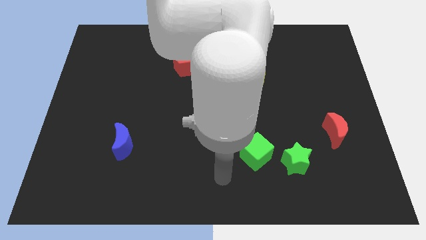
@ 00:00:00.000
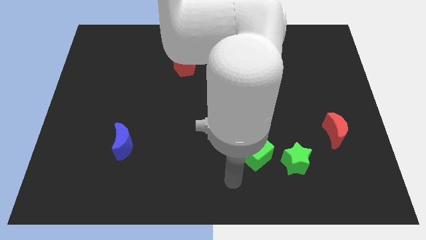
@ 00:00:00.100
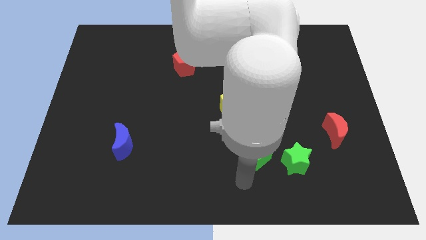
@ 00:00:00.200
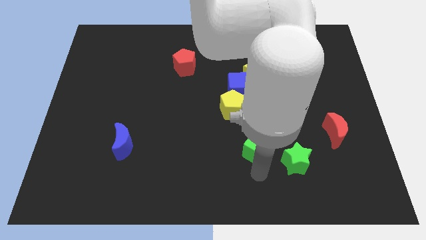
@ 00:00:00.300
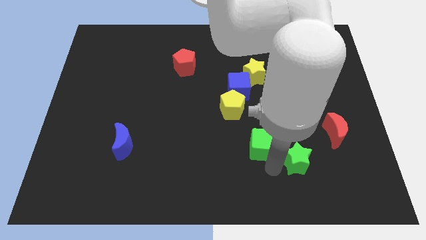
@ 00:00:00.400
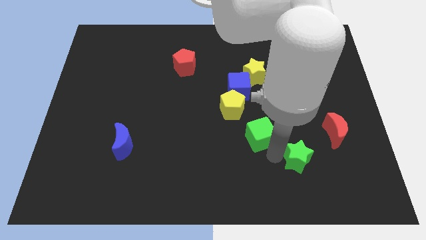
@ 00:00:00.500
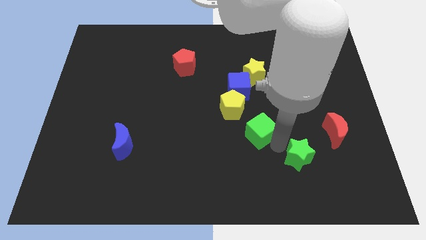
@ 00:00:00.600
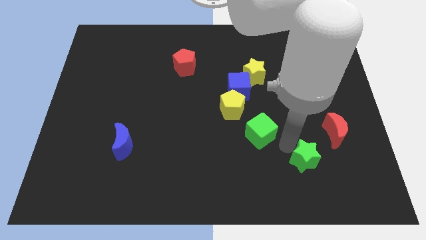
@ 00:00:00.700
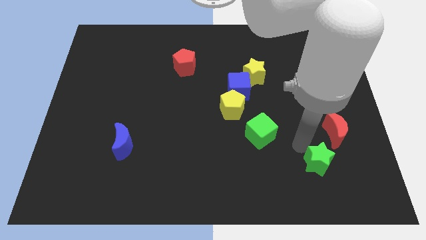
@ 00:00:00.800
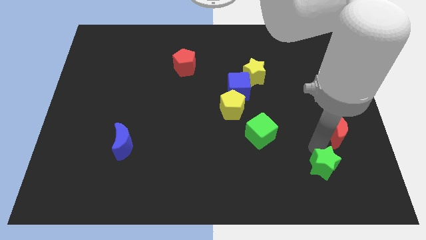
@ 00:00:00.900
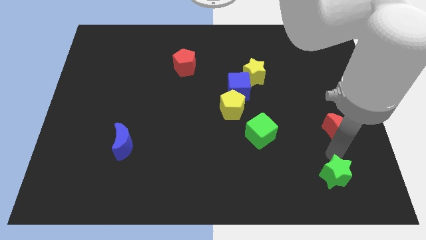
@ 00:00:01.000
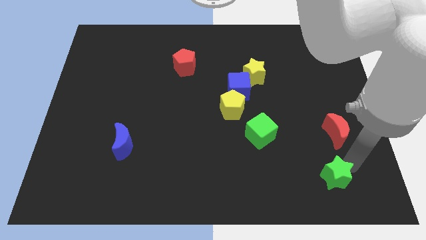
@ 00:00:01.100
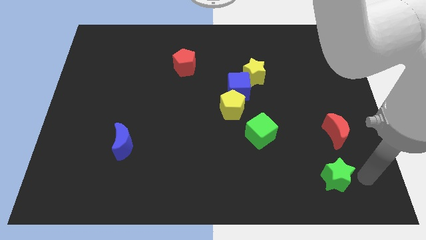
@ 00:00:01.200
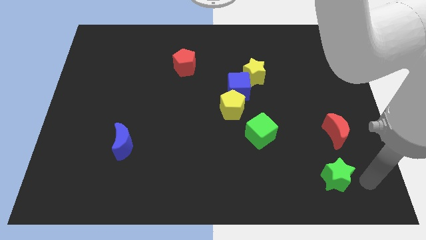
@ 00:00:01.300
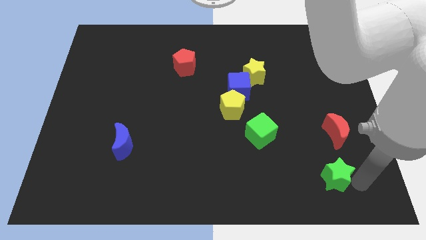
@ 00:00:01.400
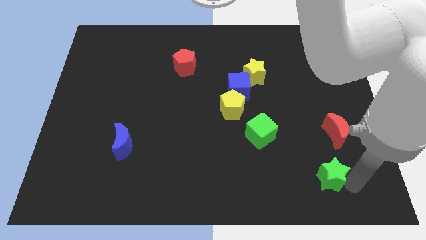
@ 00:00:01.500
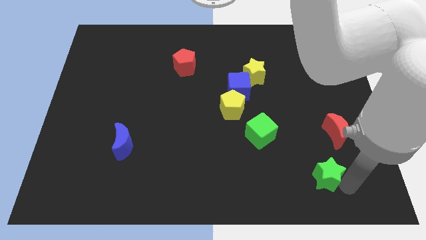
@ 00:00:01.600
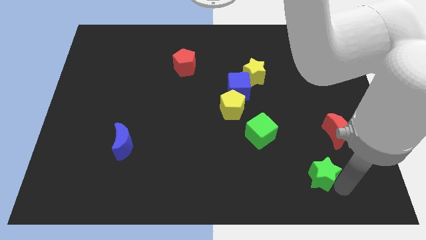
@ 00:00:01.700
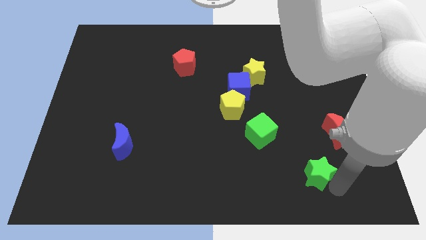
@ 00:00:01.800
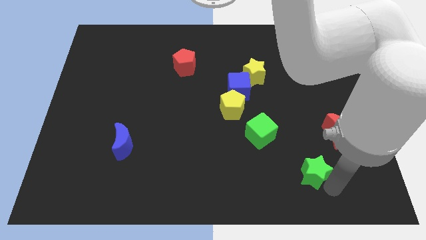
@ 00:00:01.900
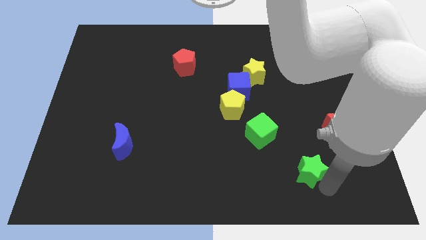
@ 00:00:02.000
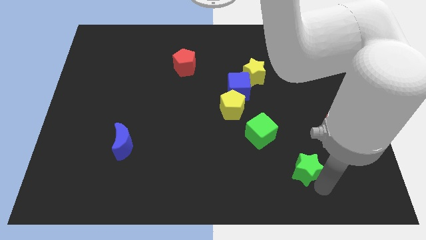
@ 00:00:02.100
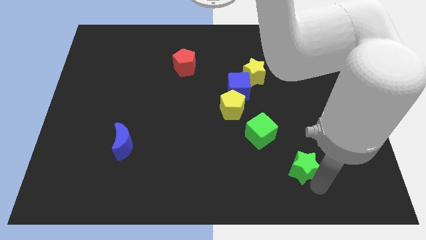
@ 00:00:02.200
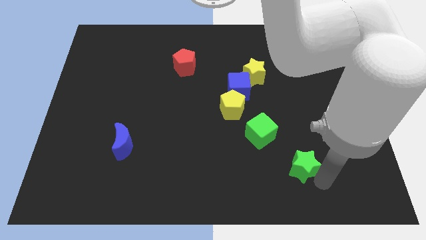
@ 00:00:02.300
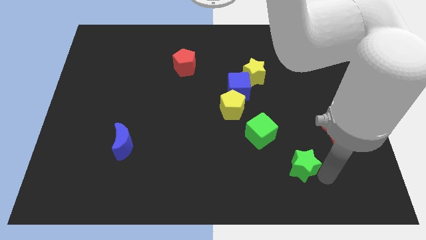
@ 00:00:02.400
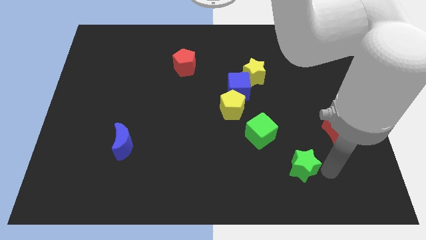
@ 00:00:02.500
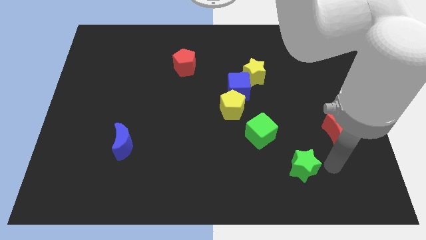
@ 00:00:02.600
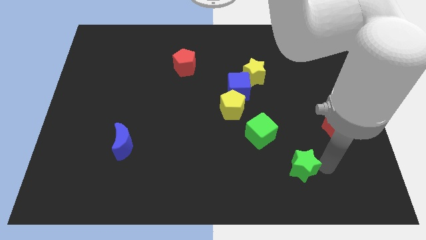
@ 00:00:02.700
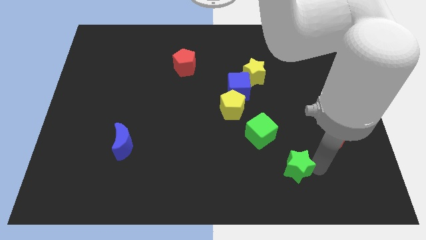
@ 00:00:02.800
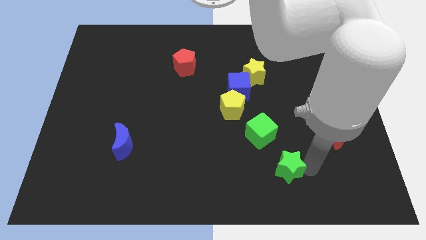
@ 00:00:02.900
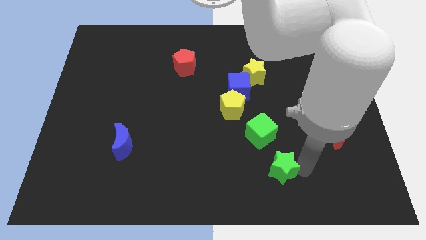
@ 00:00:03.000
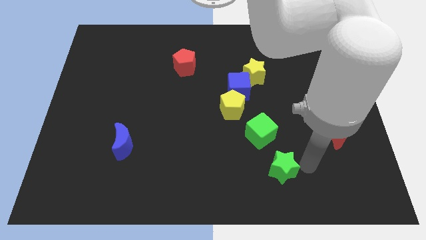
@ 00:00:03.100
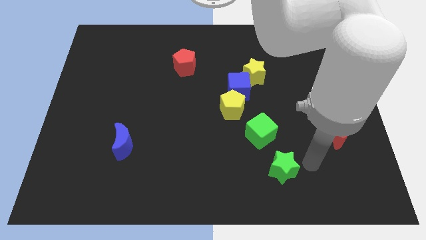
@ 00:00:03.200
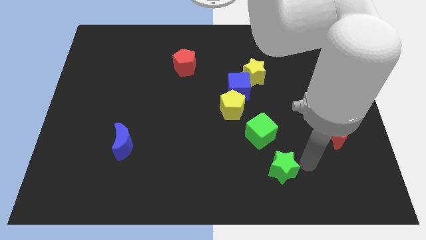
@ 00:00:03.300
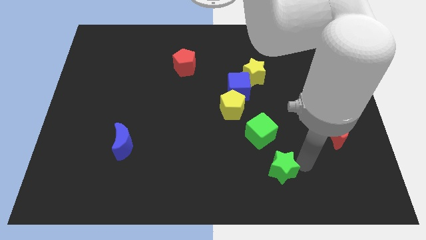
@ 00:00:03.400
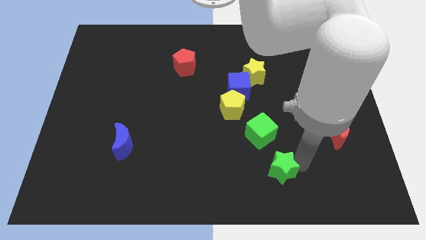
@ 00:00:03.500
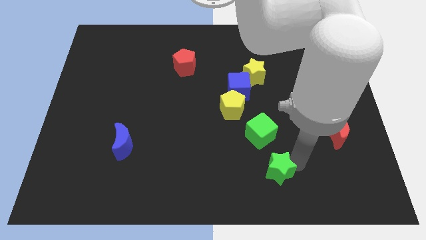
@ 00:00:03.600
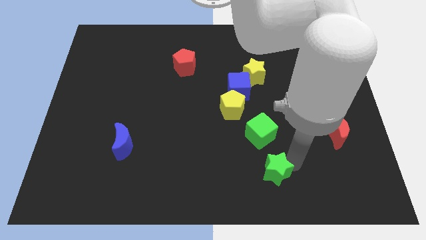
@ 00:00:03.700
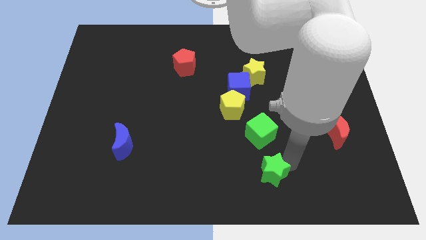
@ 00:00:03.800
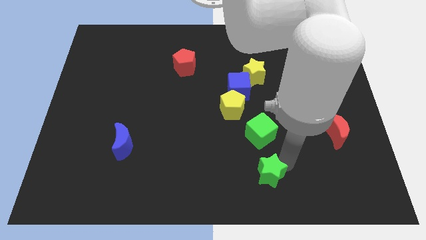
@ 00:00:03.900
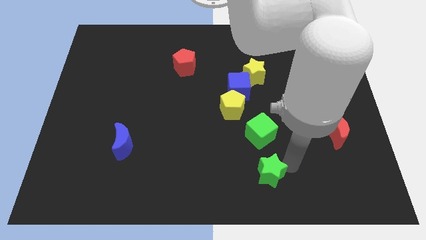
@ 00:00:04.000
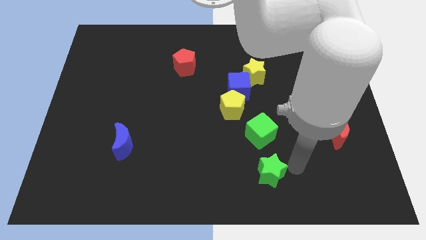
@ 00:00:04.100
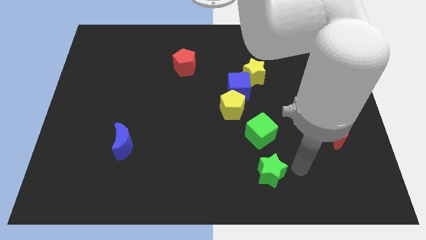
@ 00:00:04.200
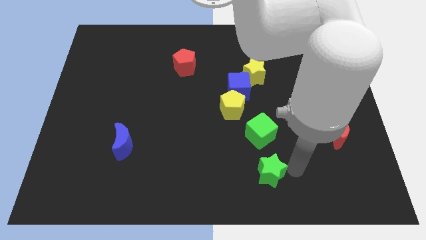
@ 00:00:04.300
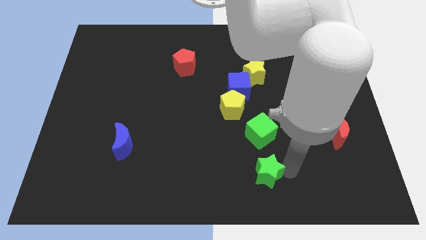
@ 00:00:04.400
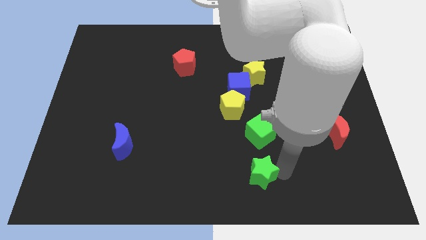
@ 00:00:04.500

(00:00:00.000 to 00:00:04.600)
push the green star left slightly

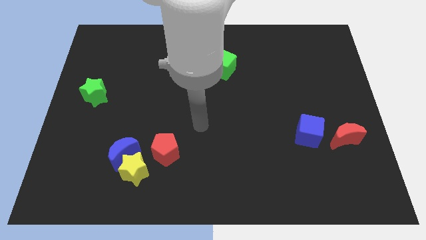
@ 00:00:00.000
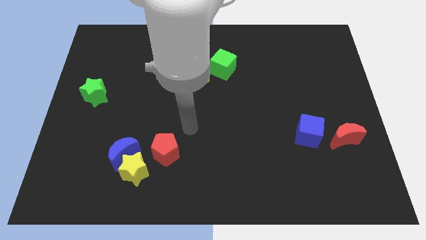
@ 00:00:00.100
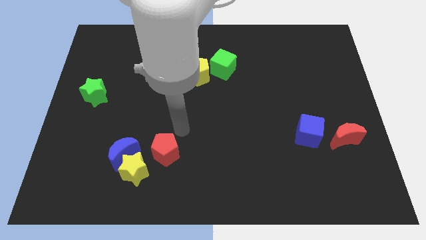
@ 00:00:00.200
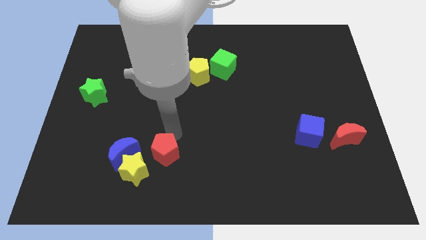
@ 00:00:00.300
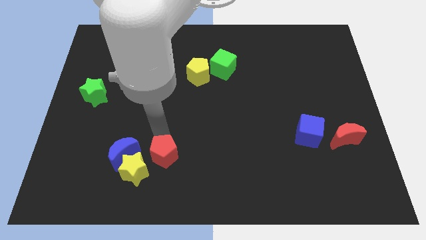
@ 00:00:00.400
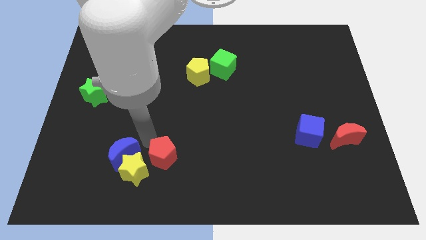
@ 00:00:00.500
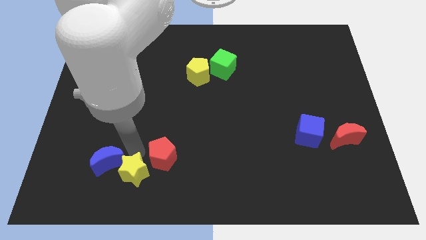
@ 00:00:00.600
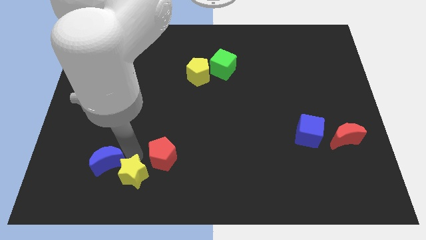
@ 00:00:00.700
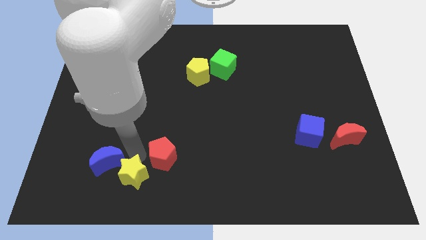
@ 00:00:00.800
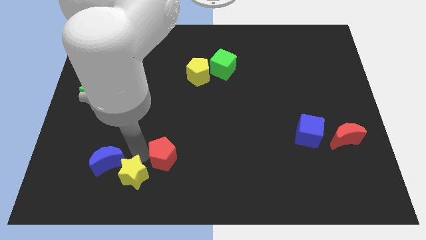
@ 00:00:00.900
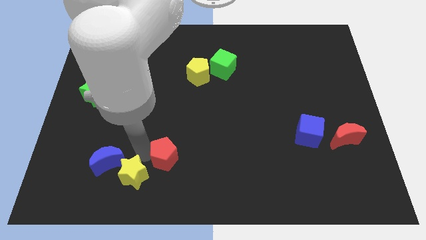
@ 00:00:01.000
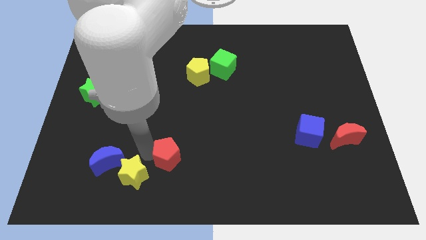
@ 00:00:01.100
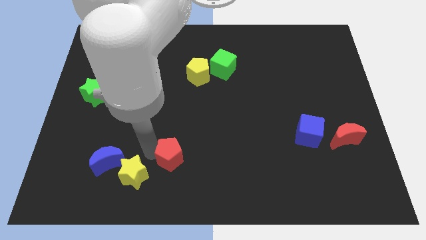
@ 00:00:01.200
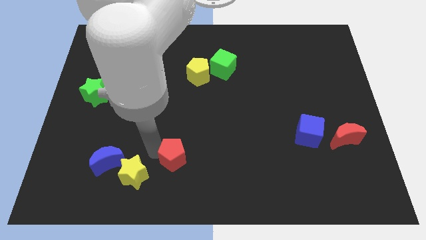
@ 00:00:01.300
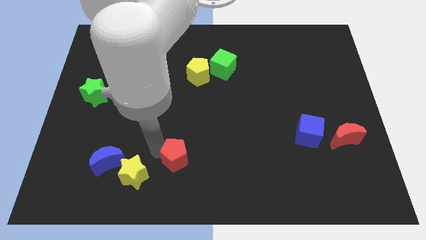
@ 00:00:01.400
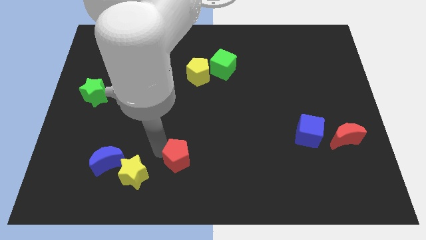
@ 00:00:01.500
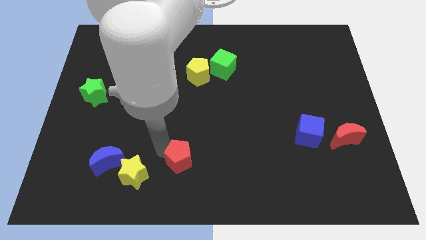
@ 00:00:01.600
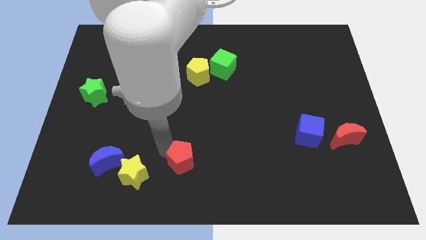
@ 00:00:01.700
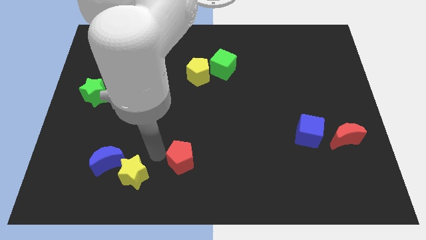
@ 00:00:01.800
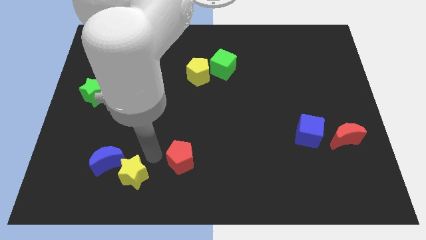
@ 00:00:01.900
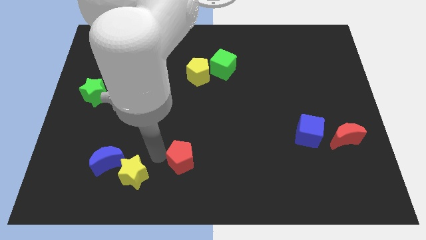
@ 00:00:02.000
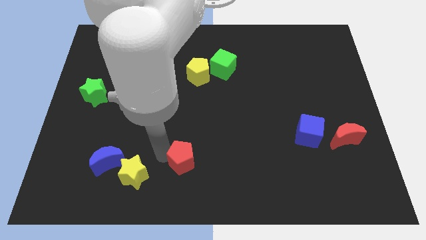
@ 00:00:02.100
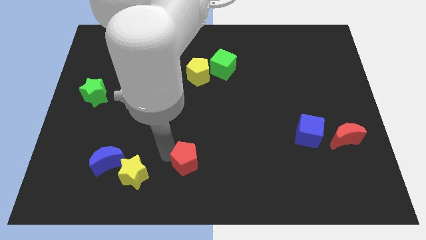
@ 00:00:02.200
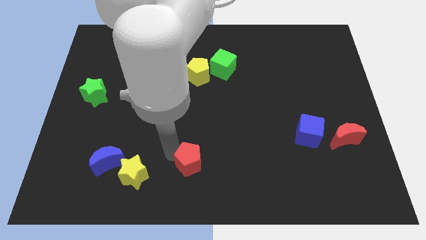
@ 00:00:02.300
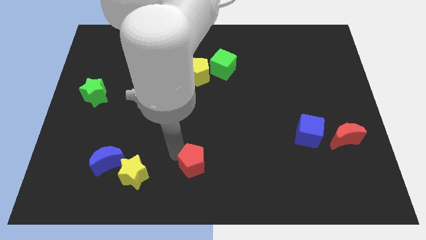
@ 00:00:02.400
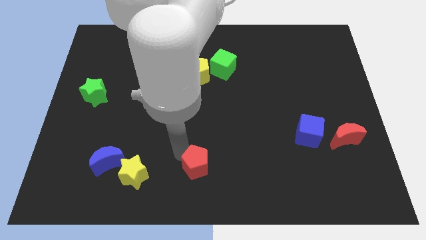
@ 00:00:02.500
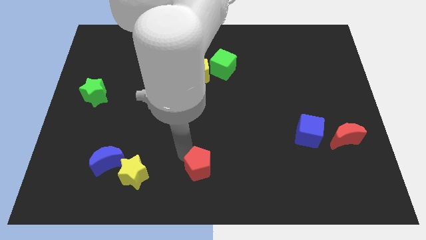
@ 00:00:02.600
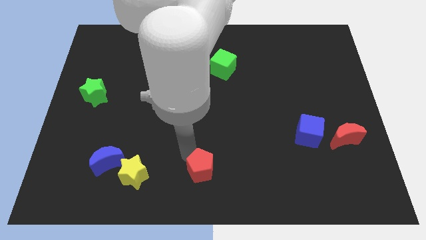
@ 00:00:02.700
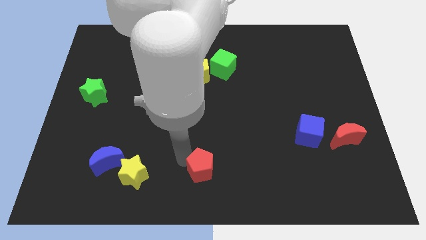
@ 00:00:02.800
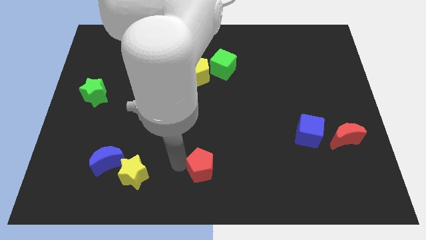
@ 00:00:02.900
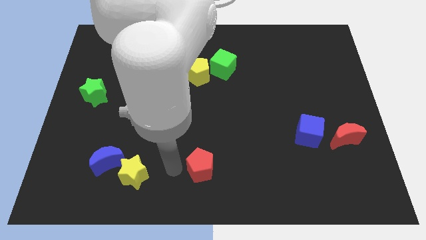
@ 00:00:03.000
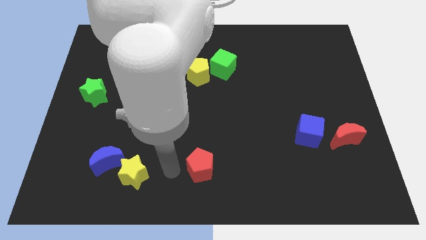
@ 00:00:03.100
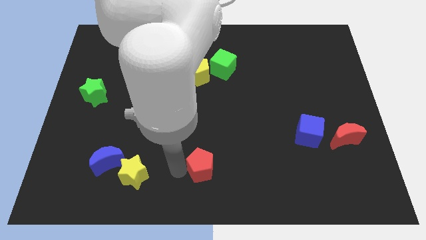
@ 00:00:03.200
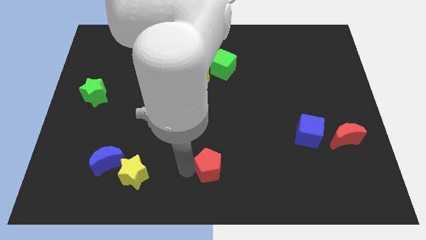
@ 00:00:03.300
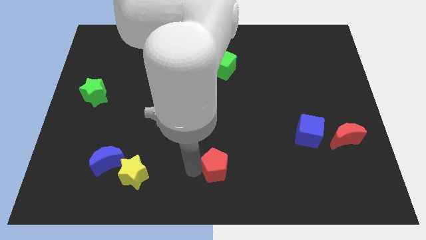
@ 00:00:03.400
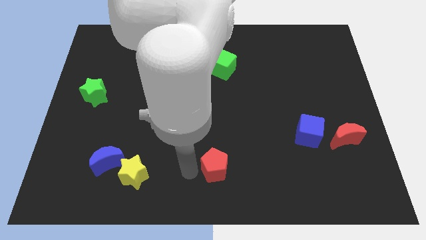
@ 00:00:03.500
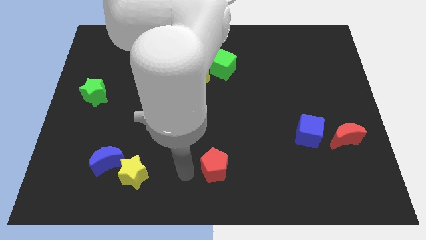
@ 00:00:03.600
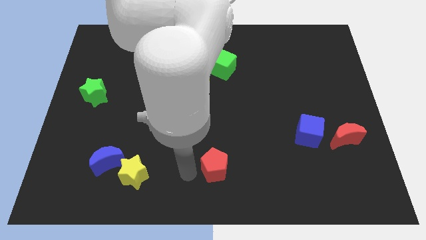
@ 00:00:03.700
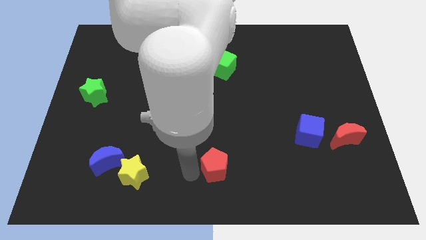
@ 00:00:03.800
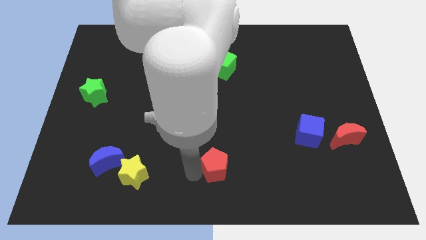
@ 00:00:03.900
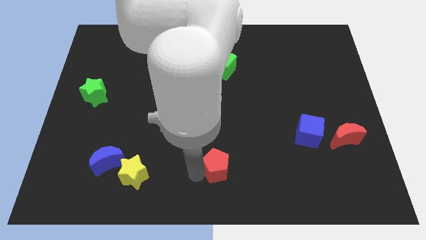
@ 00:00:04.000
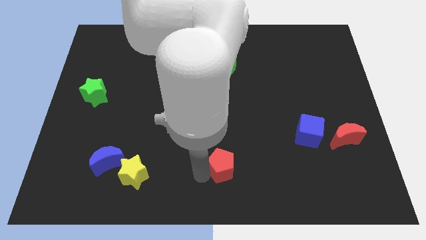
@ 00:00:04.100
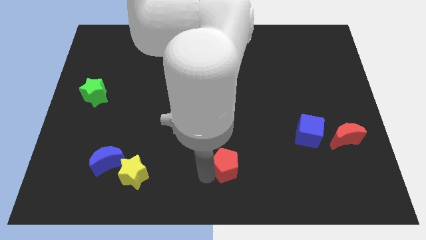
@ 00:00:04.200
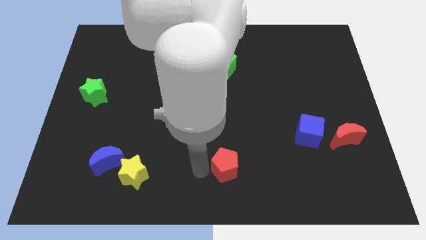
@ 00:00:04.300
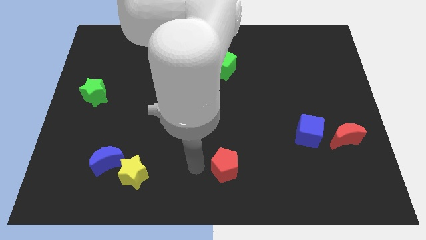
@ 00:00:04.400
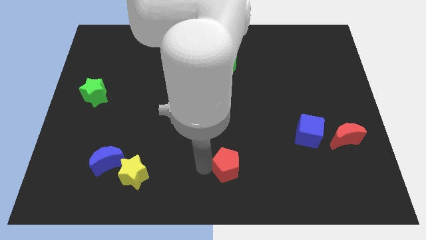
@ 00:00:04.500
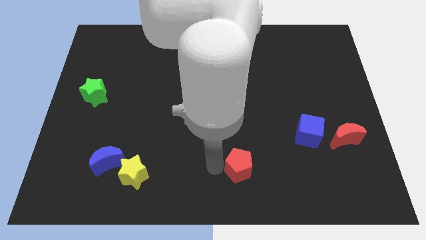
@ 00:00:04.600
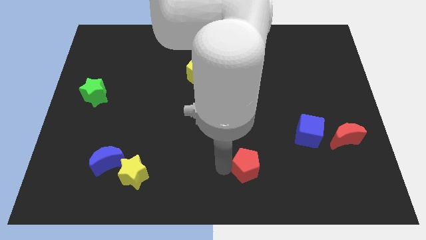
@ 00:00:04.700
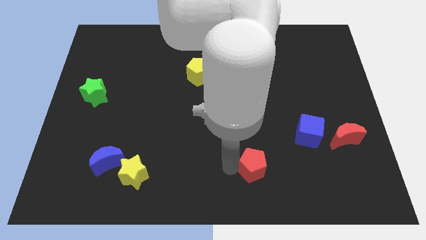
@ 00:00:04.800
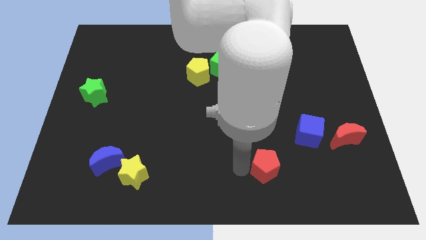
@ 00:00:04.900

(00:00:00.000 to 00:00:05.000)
move the red pentagon to the right
